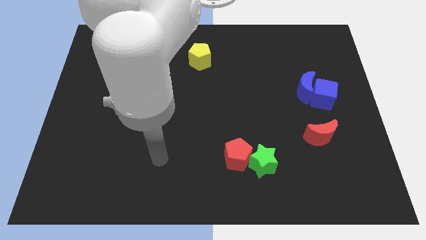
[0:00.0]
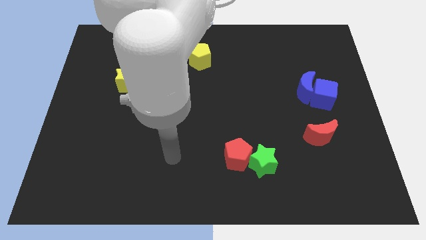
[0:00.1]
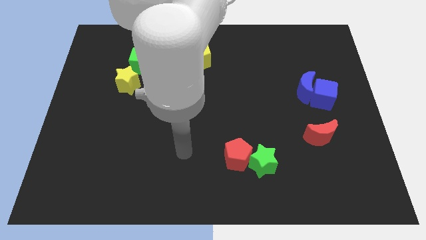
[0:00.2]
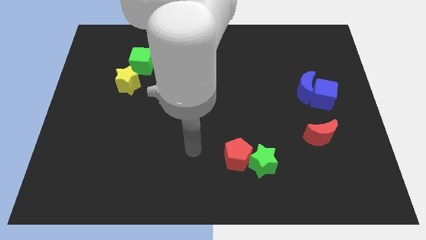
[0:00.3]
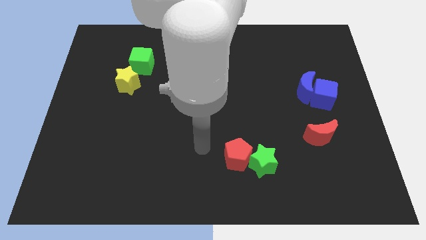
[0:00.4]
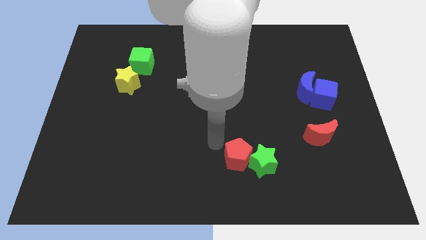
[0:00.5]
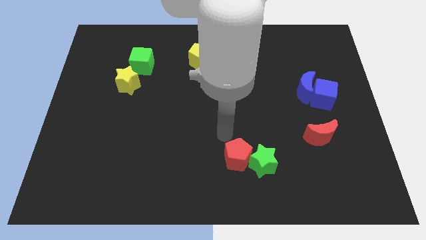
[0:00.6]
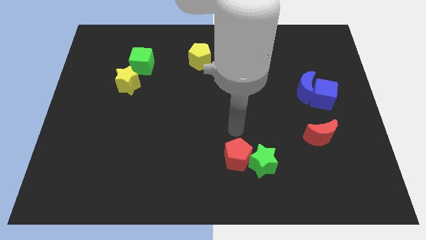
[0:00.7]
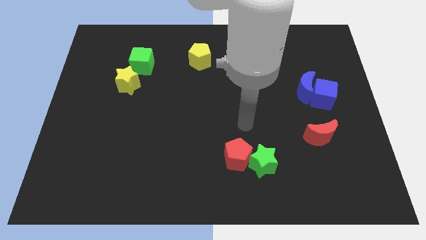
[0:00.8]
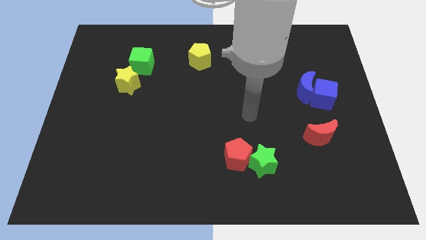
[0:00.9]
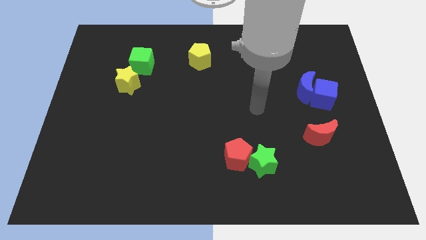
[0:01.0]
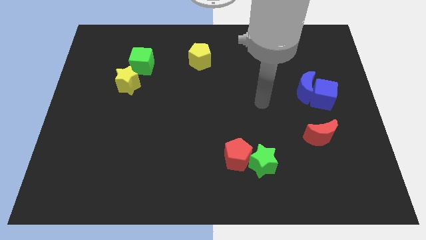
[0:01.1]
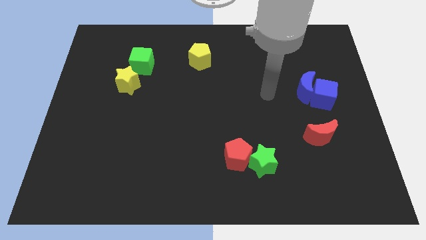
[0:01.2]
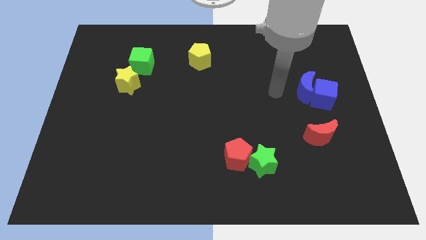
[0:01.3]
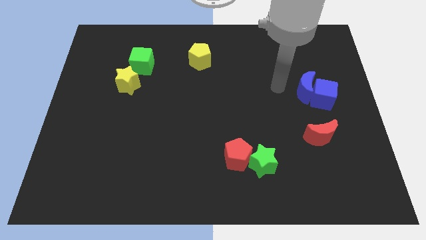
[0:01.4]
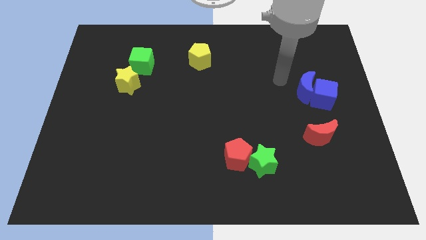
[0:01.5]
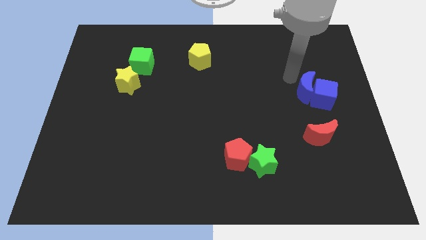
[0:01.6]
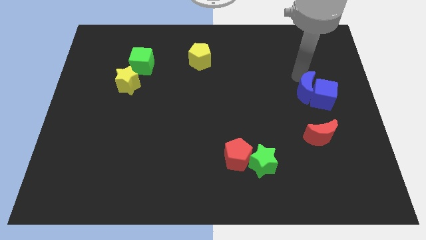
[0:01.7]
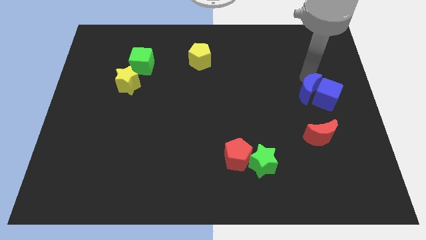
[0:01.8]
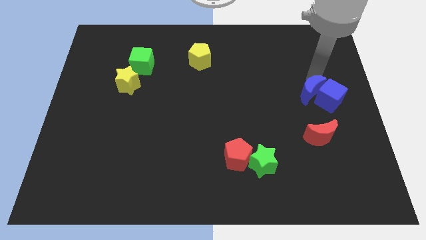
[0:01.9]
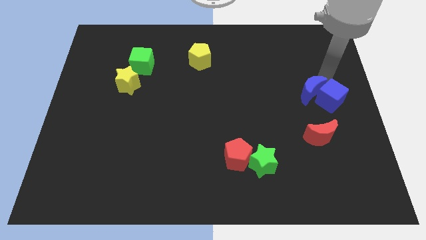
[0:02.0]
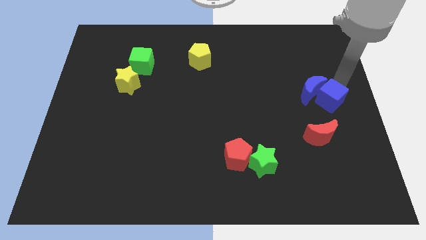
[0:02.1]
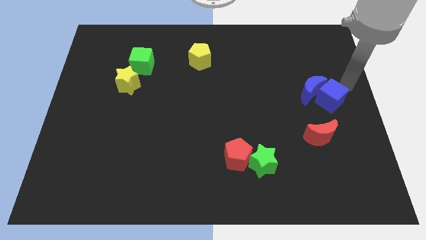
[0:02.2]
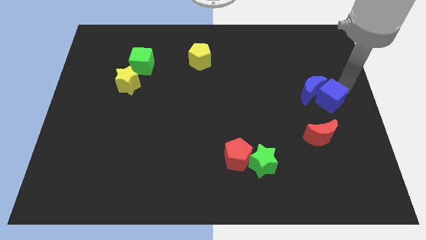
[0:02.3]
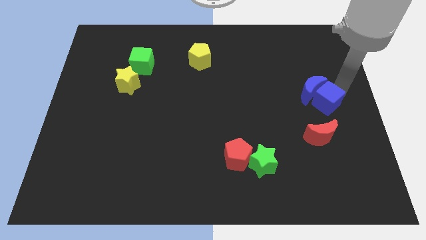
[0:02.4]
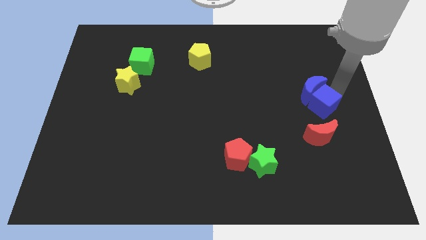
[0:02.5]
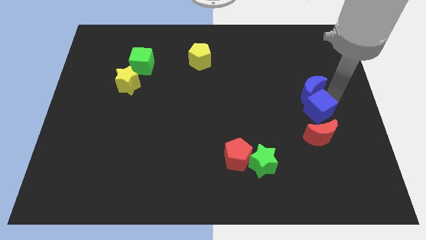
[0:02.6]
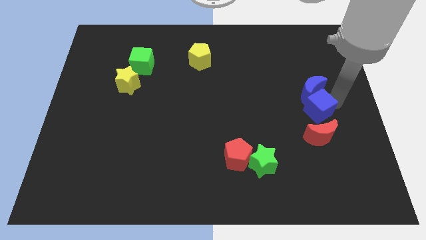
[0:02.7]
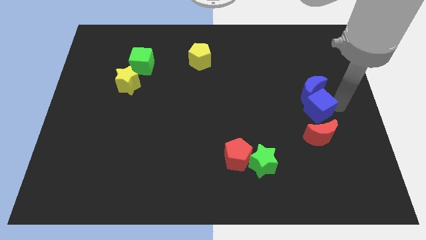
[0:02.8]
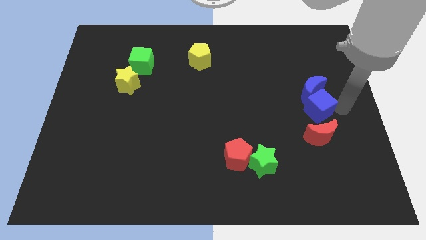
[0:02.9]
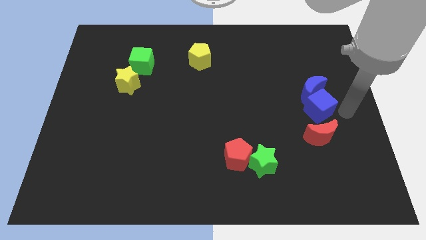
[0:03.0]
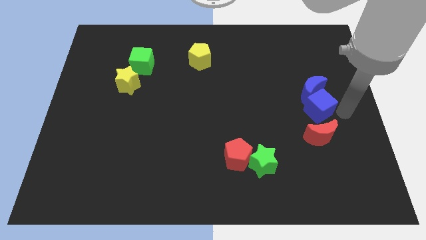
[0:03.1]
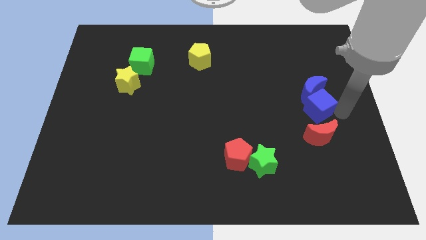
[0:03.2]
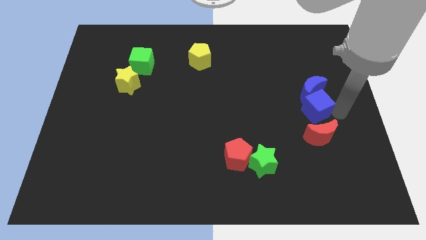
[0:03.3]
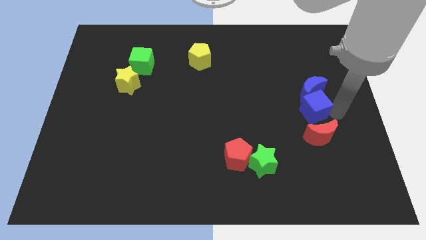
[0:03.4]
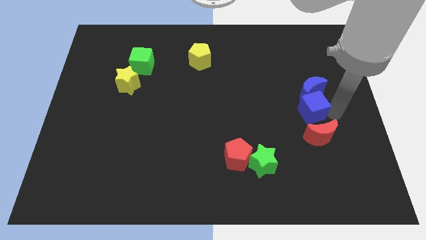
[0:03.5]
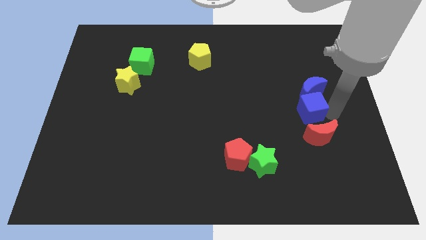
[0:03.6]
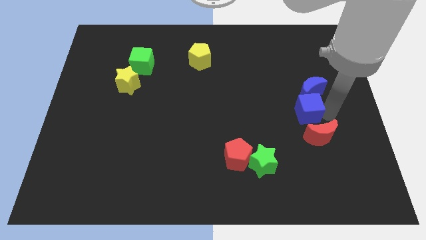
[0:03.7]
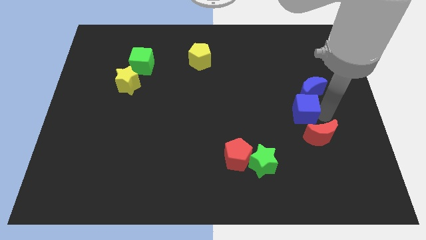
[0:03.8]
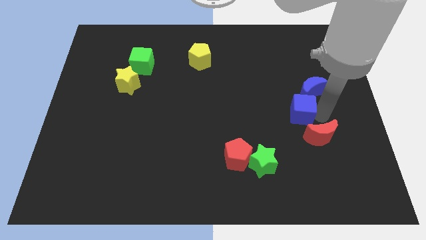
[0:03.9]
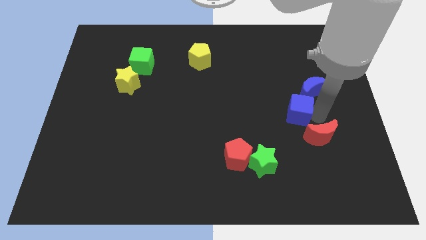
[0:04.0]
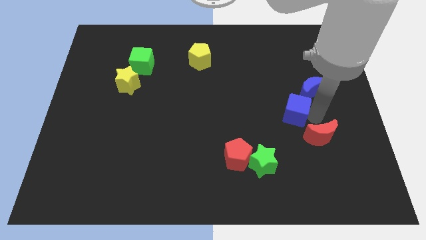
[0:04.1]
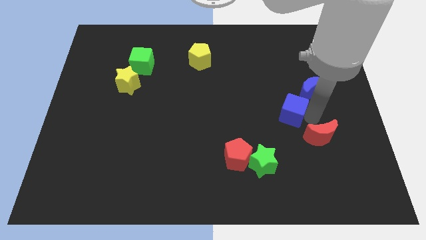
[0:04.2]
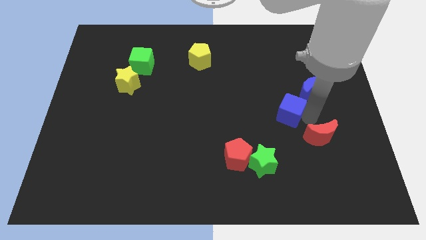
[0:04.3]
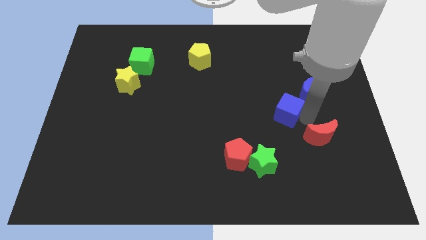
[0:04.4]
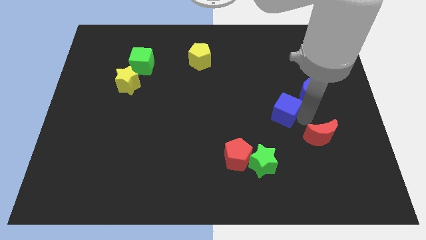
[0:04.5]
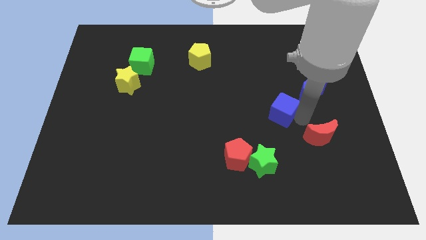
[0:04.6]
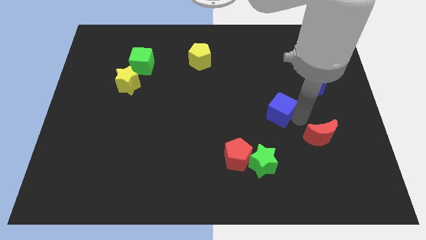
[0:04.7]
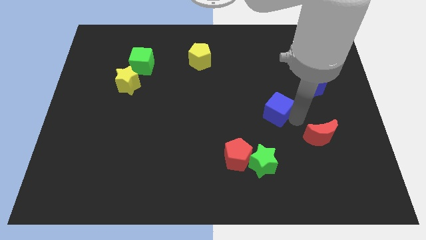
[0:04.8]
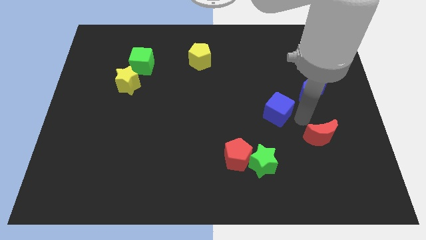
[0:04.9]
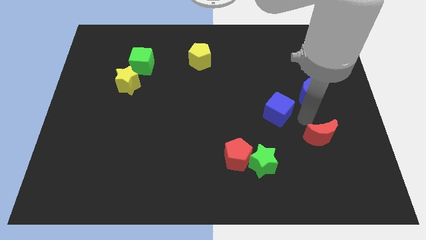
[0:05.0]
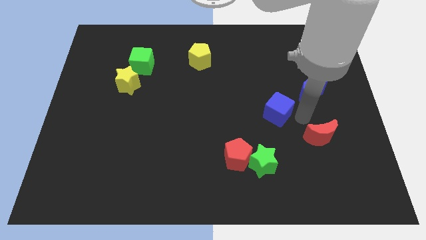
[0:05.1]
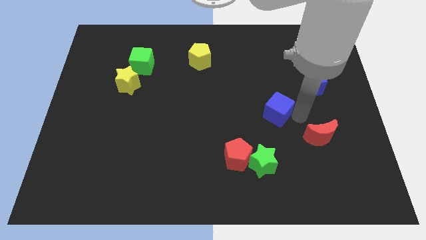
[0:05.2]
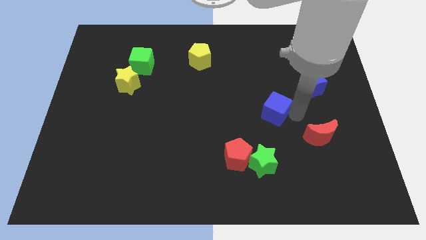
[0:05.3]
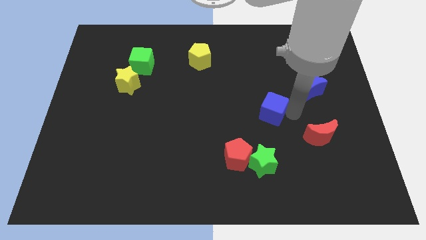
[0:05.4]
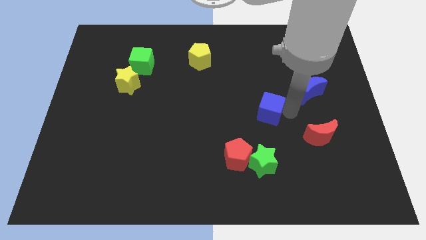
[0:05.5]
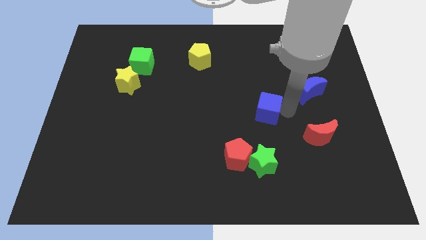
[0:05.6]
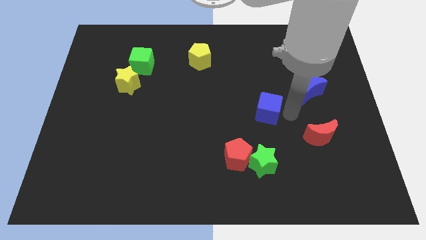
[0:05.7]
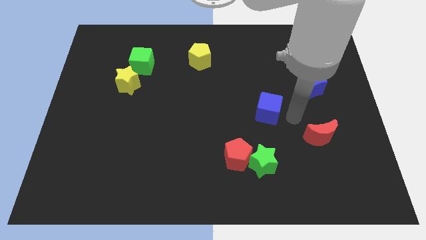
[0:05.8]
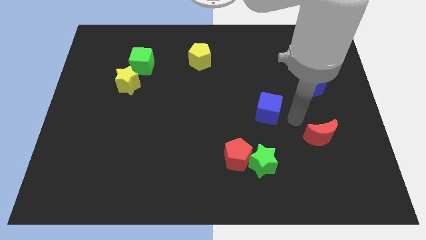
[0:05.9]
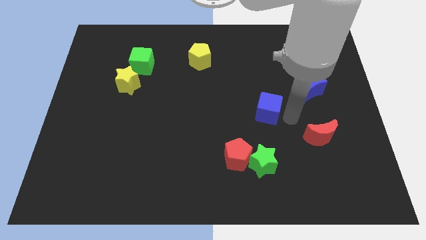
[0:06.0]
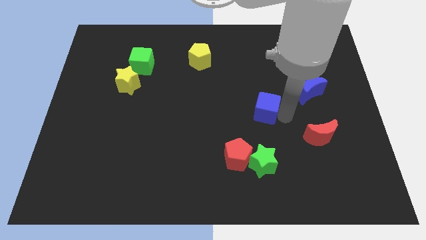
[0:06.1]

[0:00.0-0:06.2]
push the blue cube to the middle of the board
